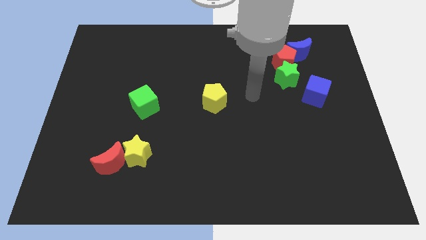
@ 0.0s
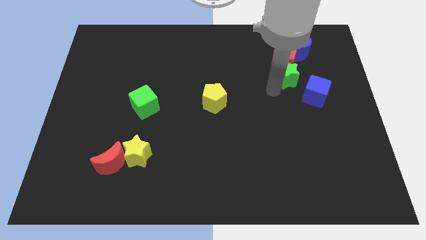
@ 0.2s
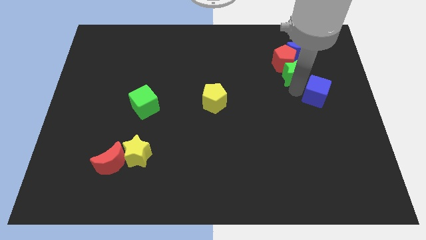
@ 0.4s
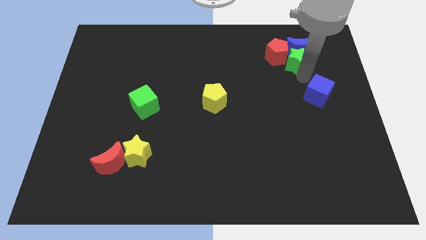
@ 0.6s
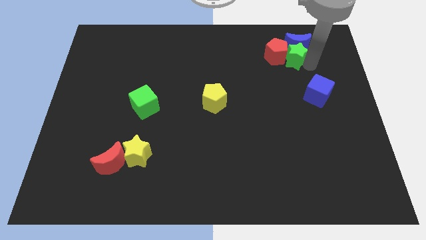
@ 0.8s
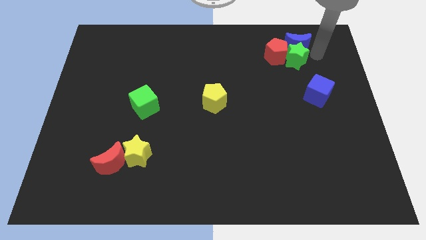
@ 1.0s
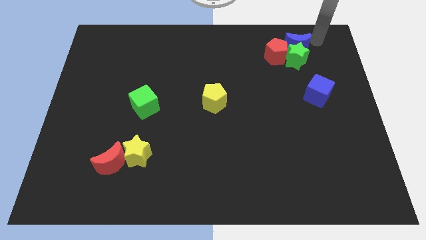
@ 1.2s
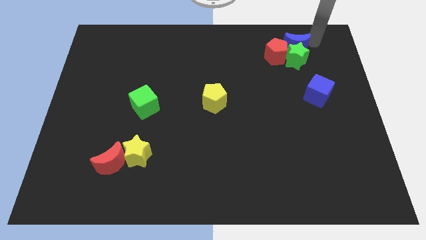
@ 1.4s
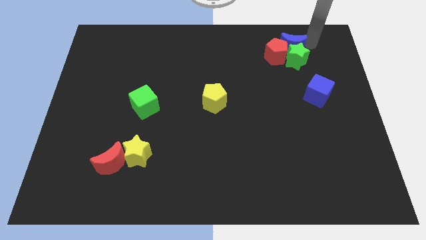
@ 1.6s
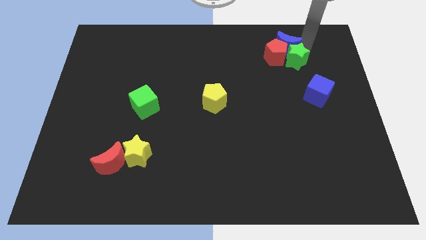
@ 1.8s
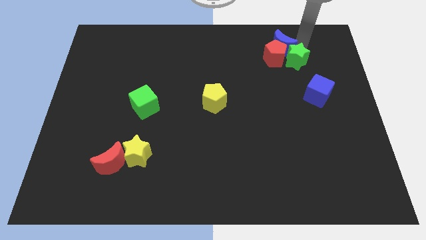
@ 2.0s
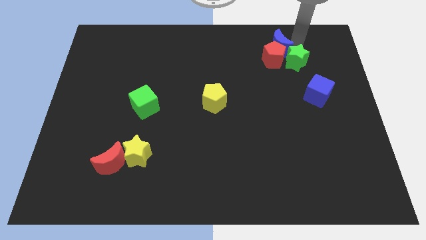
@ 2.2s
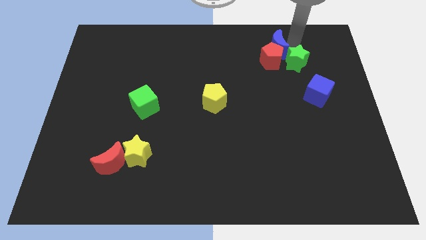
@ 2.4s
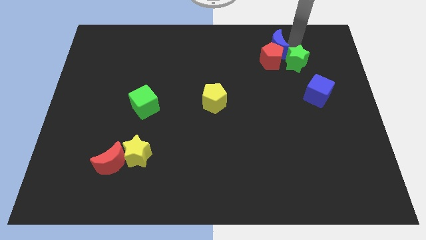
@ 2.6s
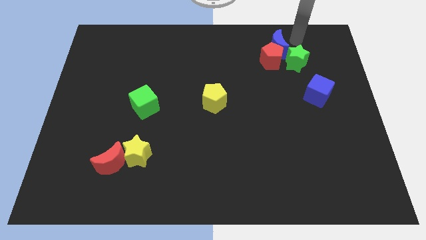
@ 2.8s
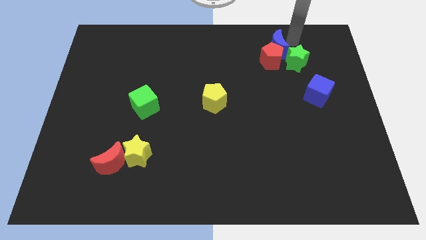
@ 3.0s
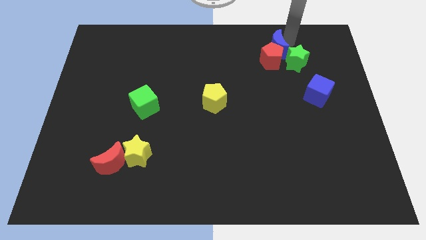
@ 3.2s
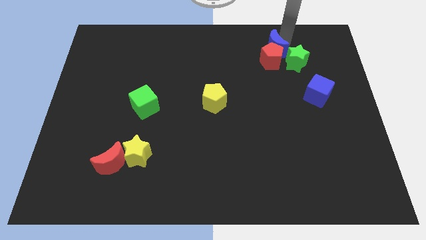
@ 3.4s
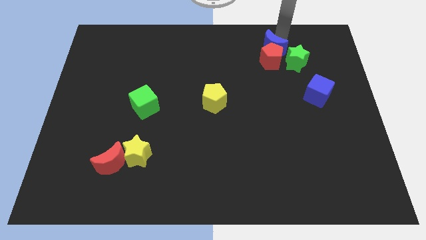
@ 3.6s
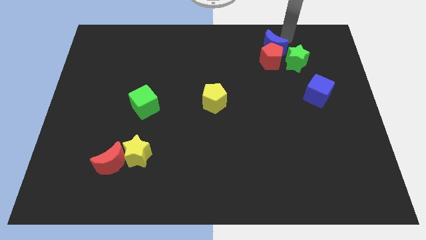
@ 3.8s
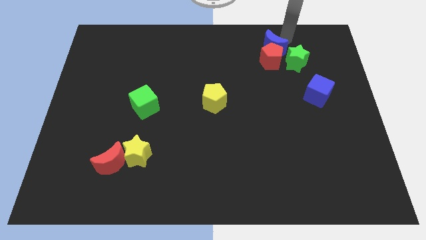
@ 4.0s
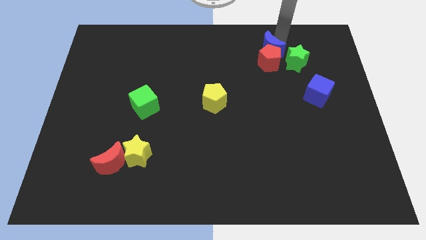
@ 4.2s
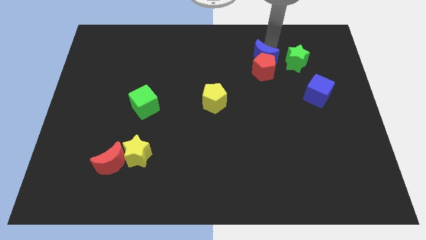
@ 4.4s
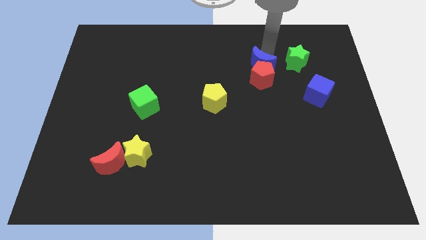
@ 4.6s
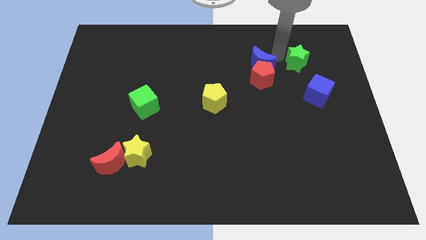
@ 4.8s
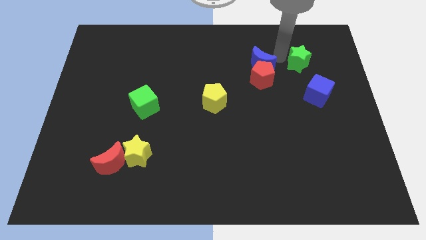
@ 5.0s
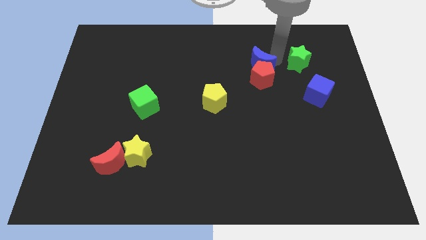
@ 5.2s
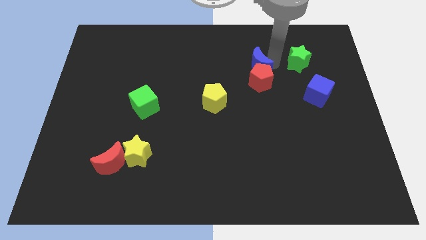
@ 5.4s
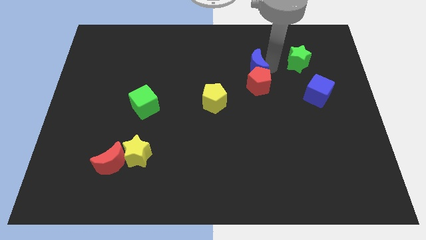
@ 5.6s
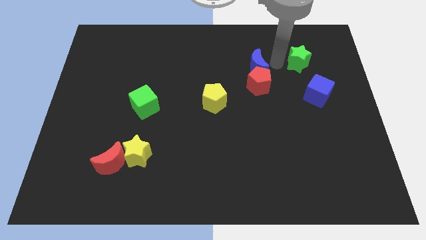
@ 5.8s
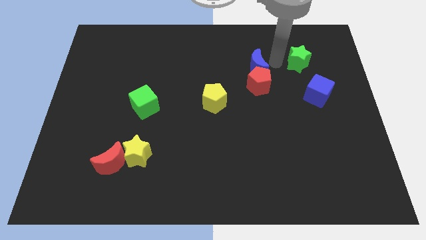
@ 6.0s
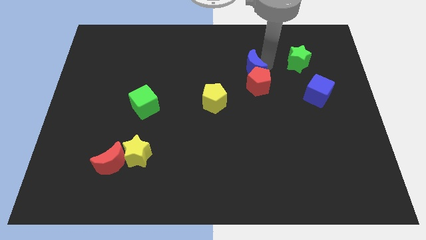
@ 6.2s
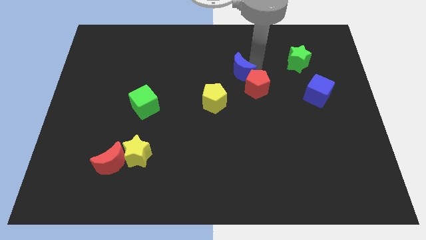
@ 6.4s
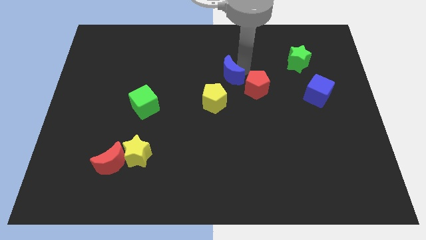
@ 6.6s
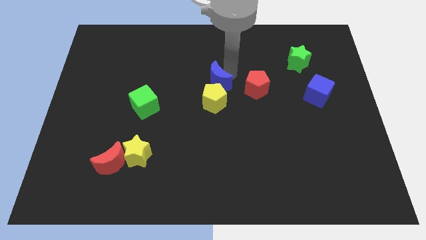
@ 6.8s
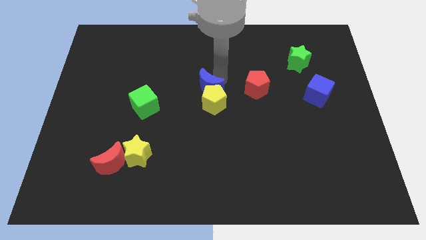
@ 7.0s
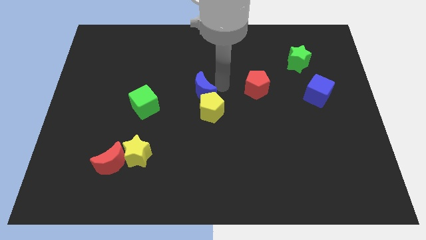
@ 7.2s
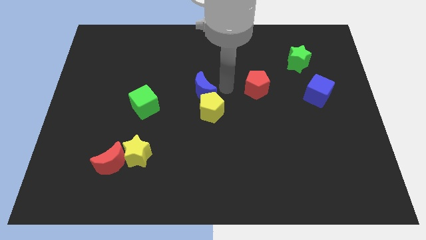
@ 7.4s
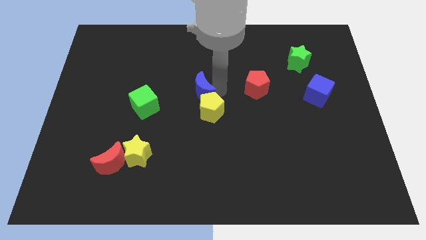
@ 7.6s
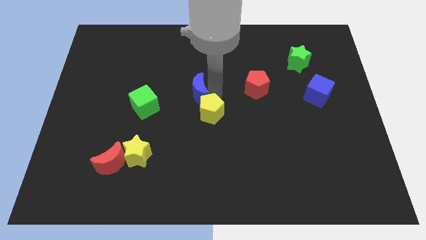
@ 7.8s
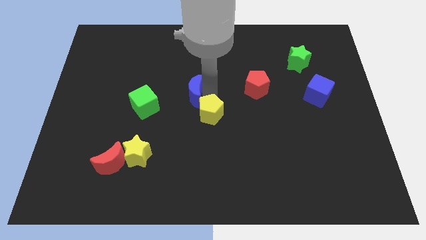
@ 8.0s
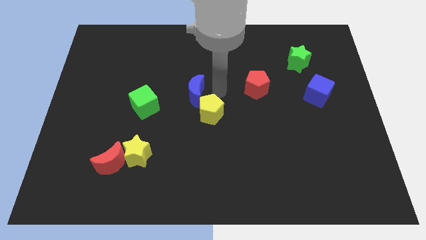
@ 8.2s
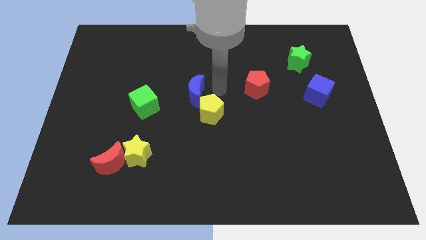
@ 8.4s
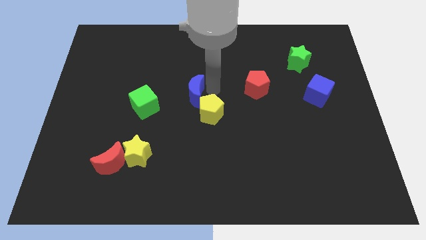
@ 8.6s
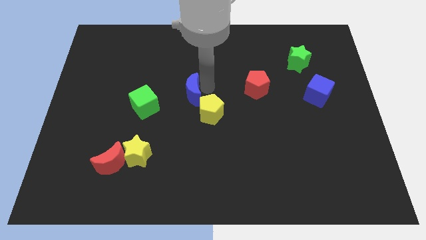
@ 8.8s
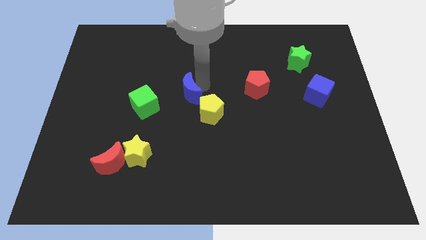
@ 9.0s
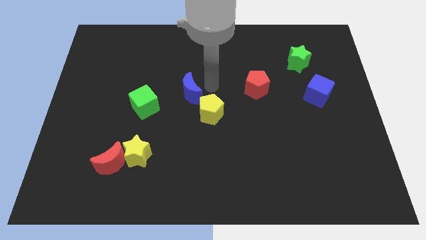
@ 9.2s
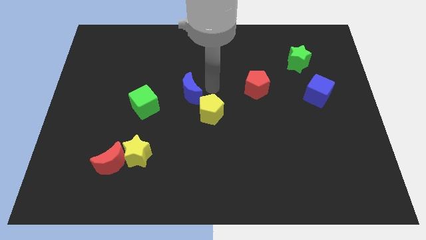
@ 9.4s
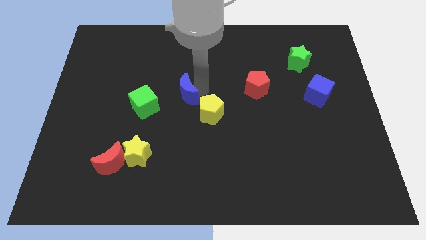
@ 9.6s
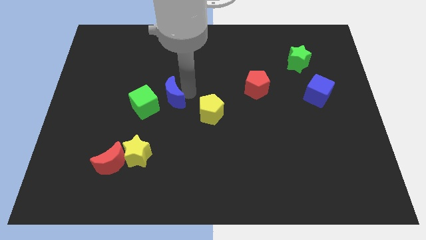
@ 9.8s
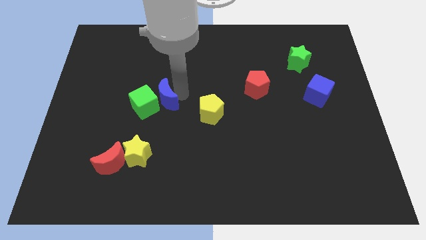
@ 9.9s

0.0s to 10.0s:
put the blue moon to the green cube

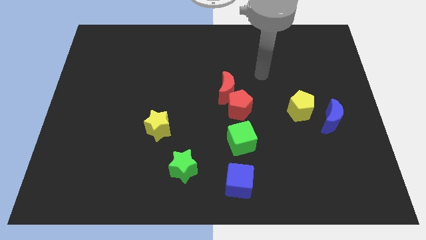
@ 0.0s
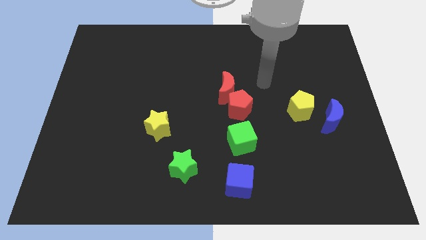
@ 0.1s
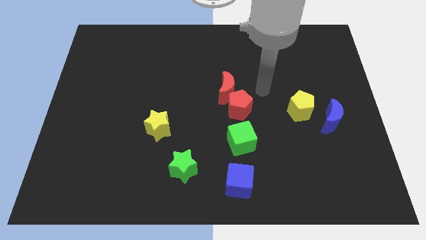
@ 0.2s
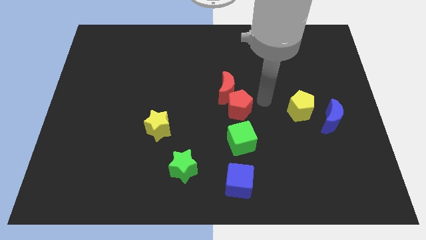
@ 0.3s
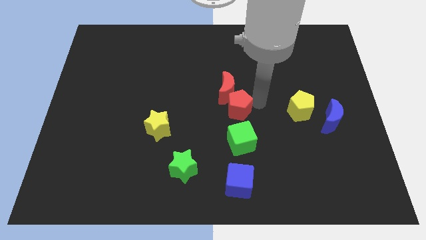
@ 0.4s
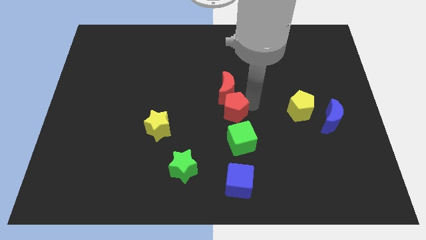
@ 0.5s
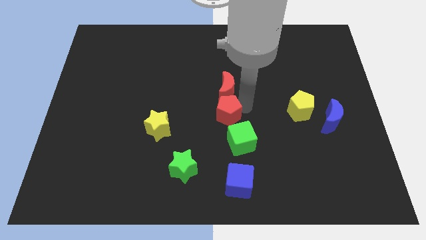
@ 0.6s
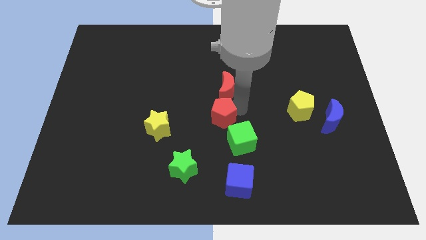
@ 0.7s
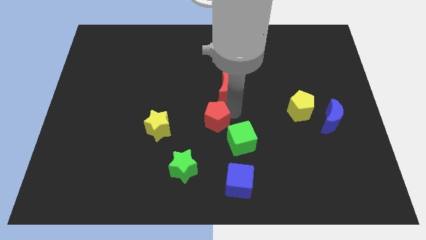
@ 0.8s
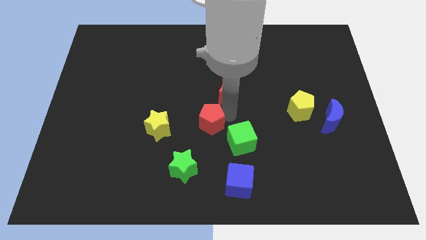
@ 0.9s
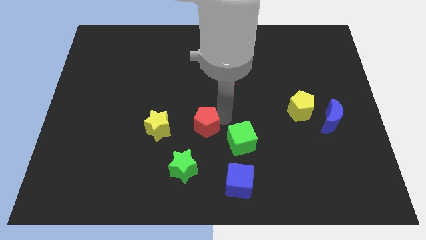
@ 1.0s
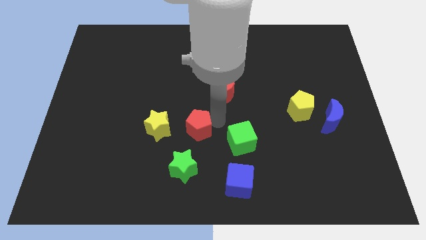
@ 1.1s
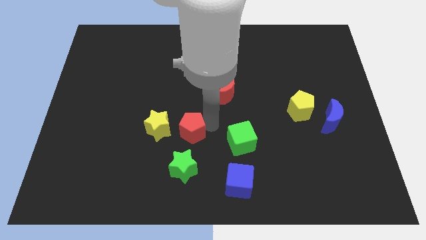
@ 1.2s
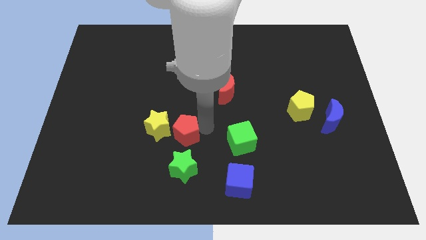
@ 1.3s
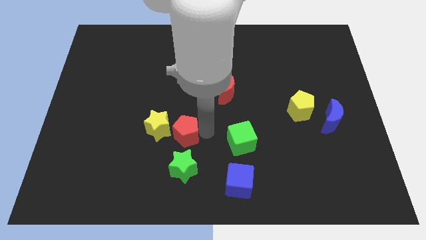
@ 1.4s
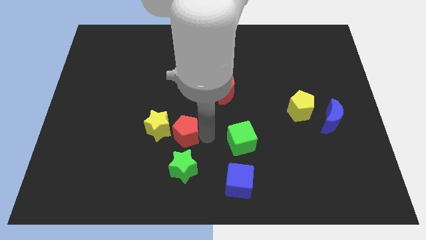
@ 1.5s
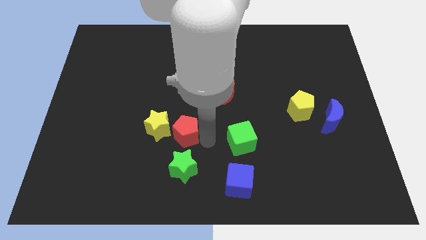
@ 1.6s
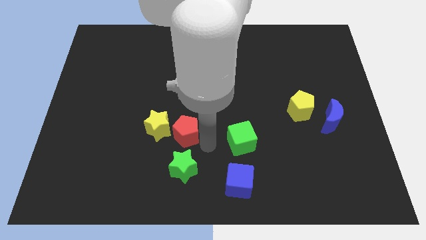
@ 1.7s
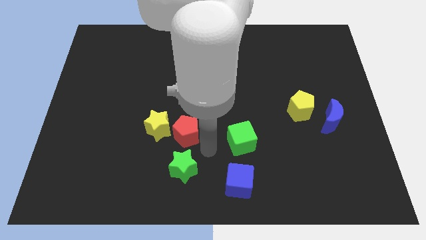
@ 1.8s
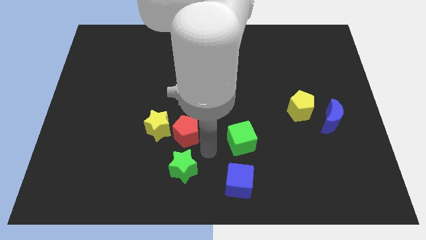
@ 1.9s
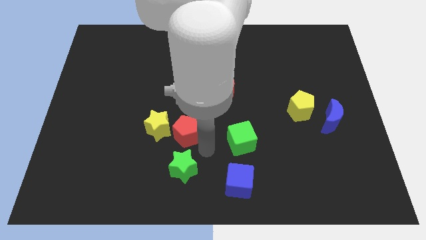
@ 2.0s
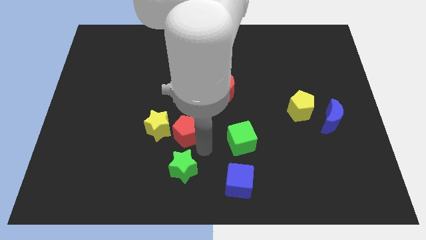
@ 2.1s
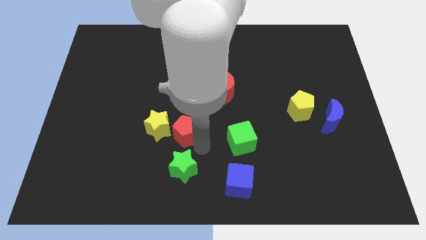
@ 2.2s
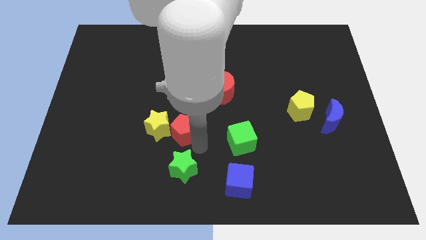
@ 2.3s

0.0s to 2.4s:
push the red pentagon towards the yellow star

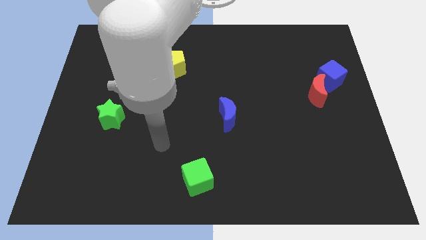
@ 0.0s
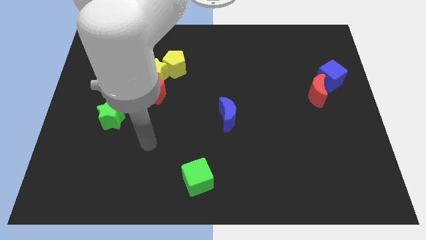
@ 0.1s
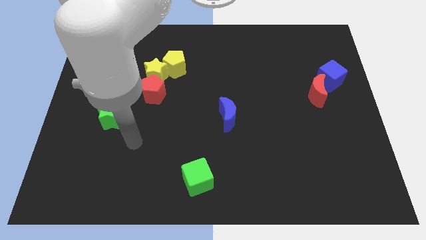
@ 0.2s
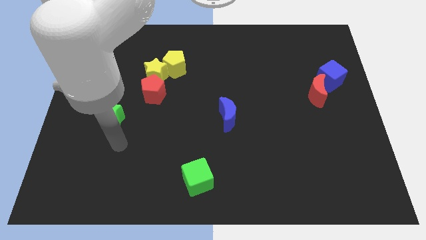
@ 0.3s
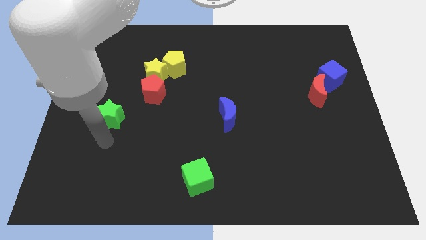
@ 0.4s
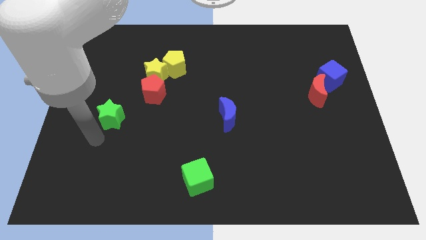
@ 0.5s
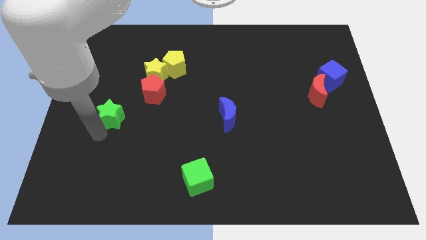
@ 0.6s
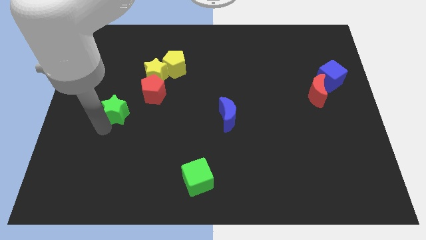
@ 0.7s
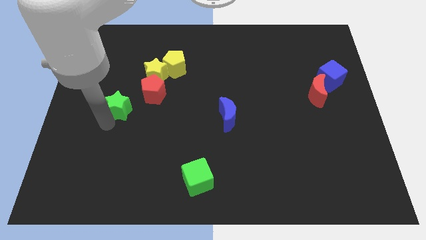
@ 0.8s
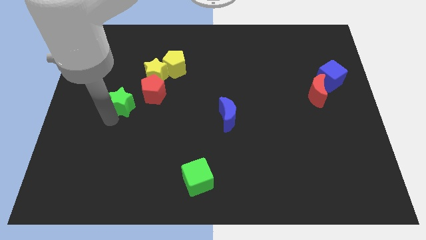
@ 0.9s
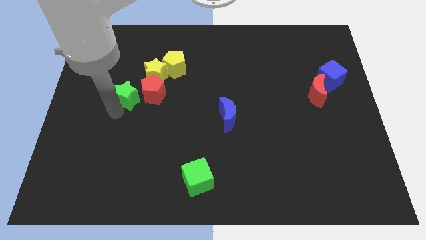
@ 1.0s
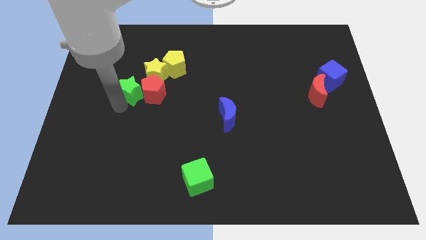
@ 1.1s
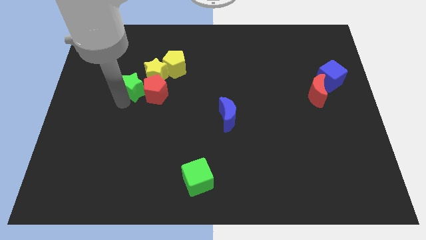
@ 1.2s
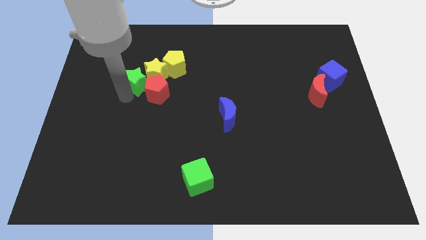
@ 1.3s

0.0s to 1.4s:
put the green star to the yellow star
